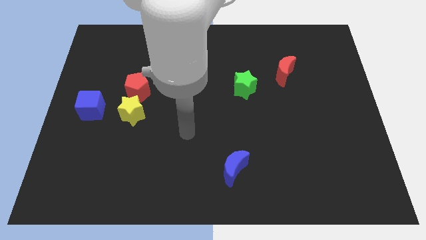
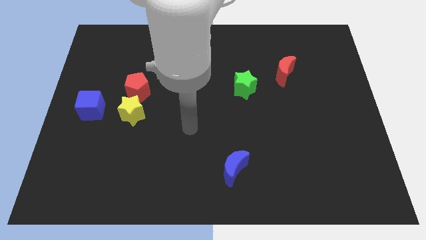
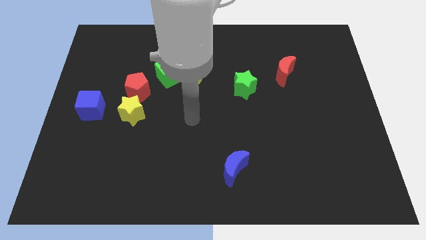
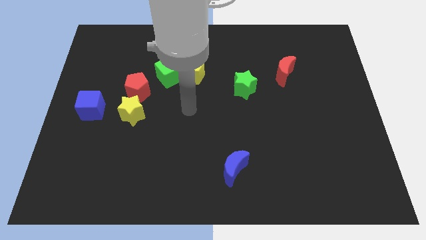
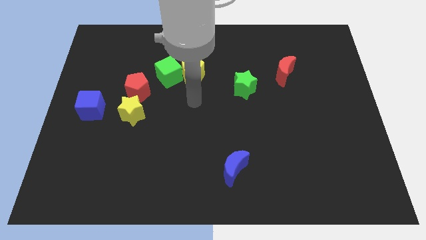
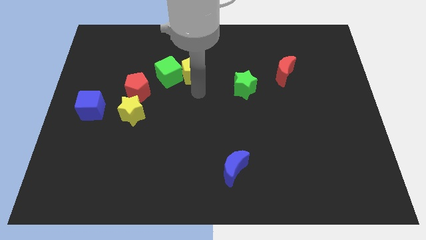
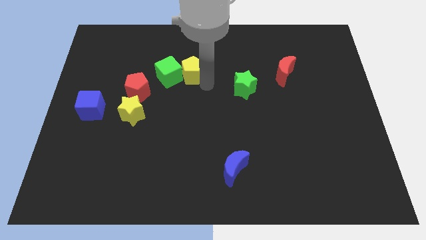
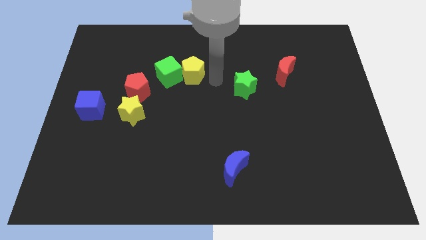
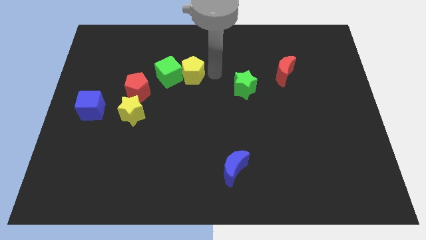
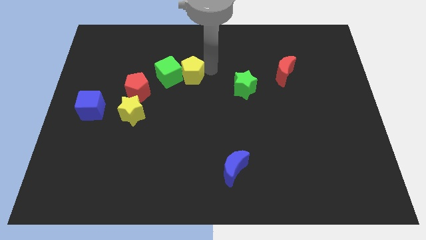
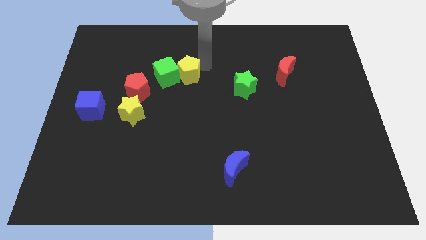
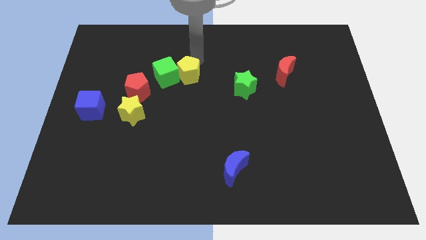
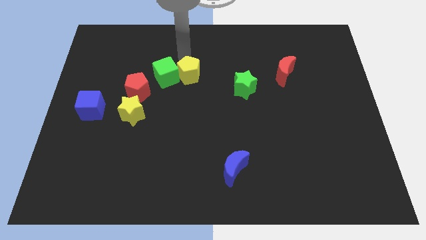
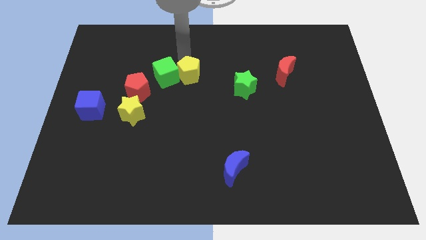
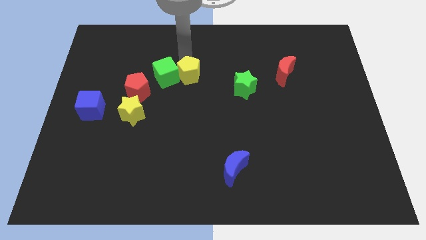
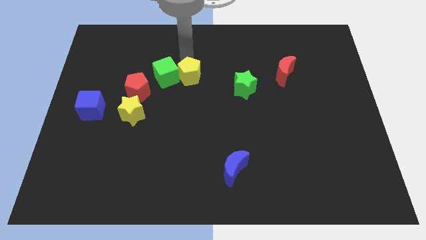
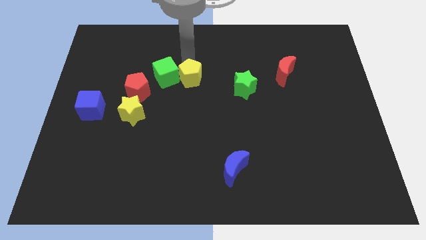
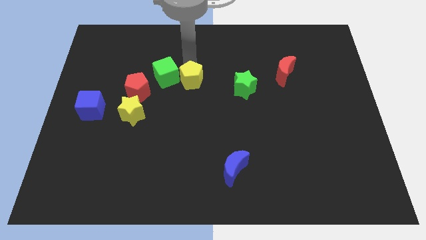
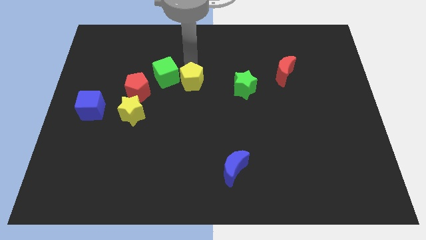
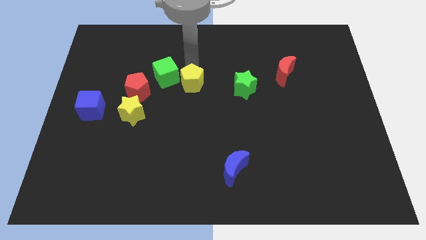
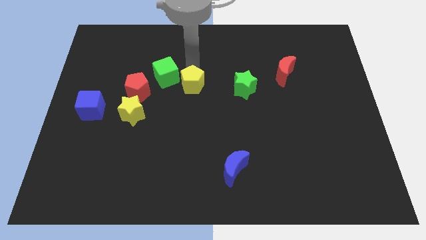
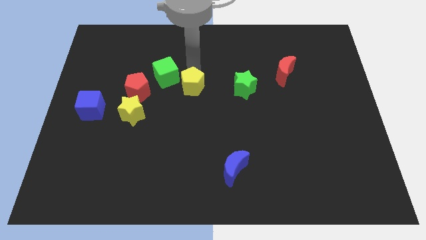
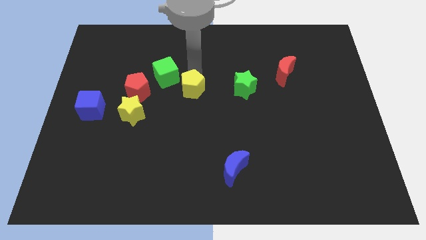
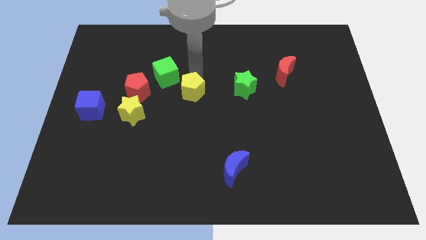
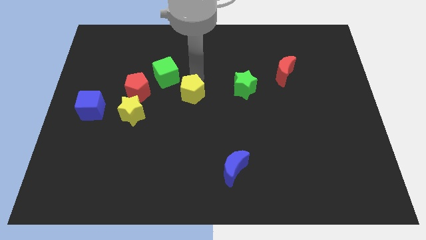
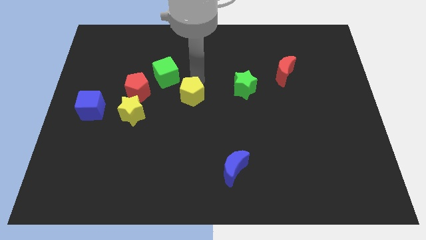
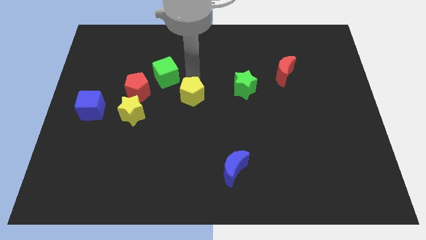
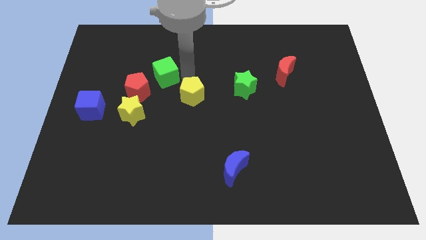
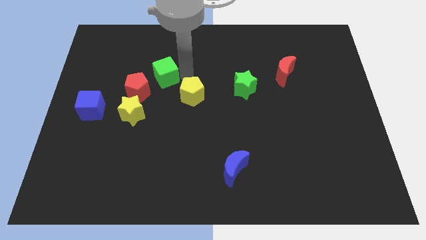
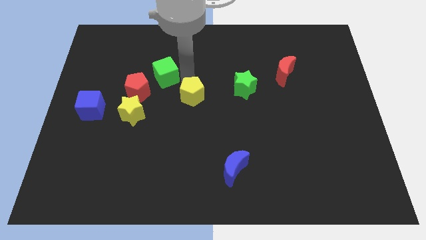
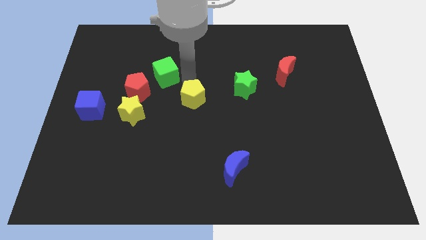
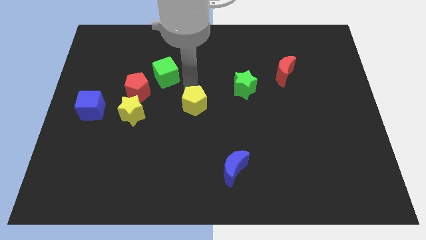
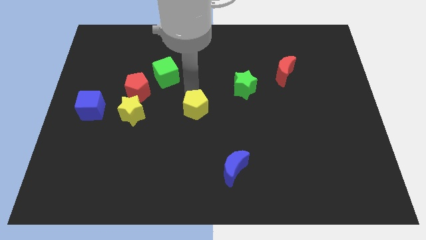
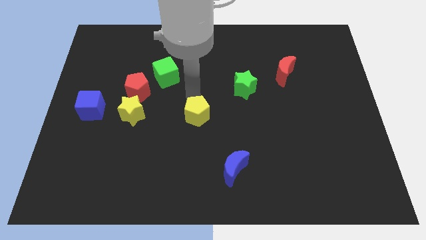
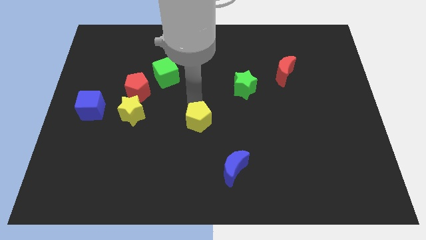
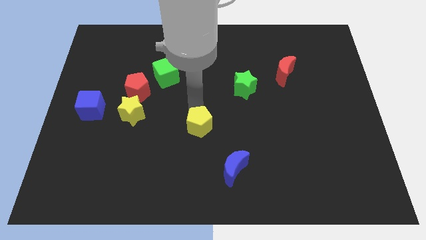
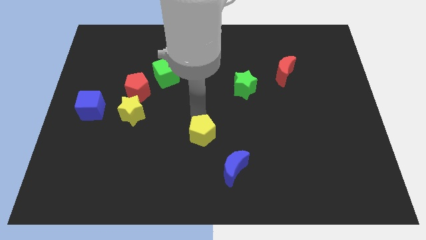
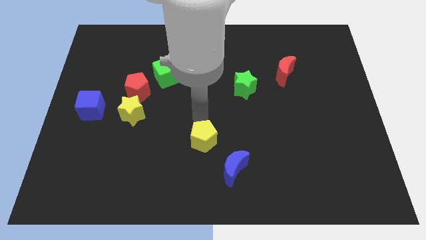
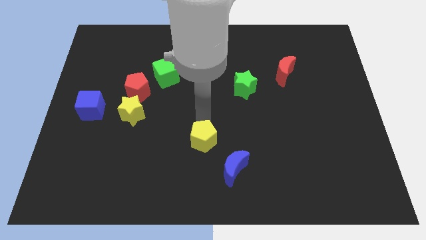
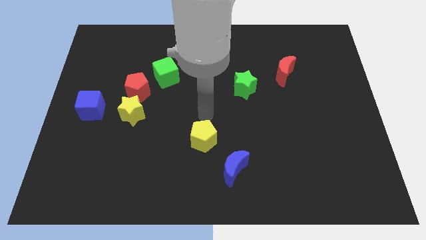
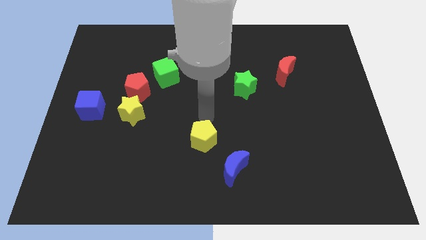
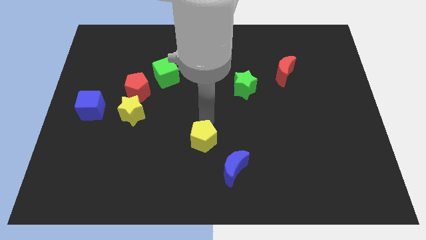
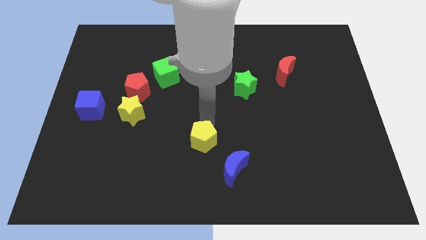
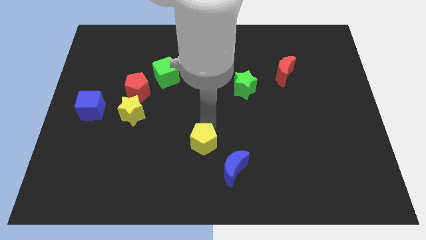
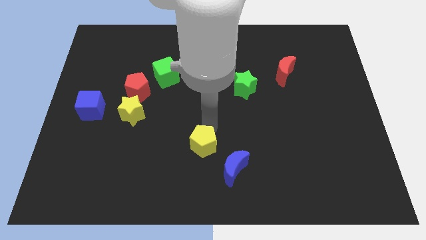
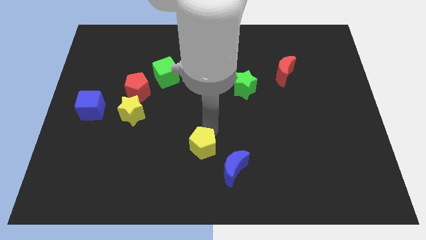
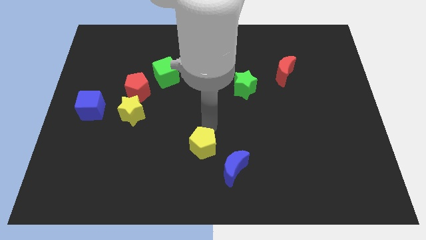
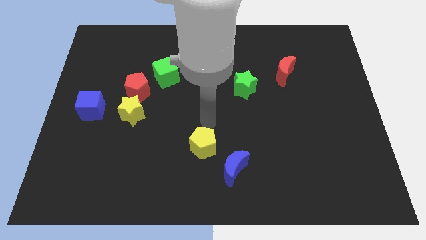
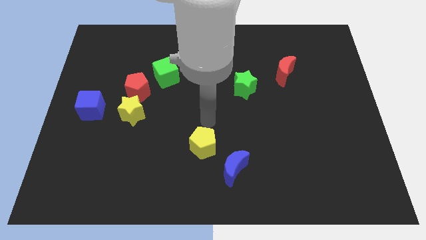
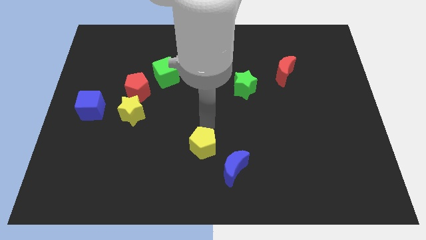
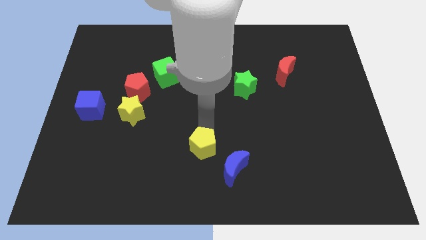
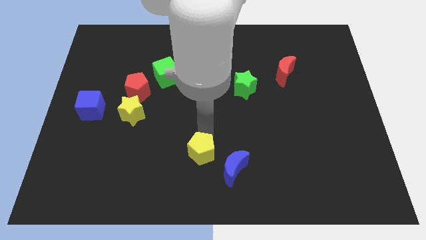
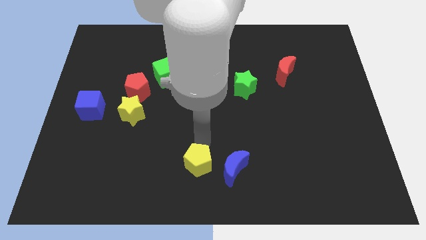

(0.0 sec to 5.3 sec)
move the yellow pentagon to the bottom

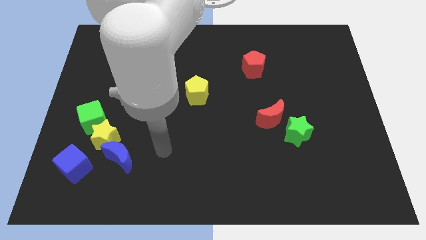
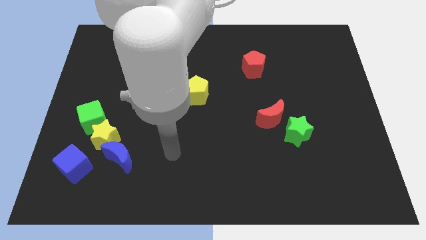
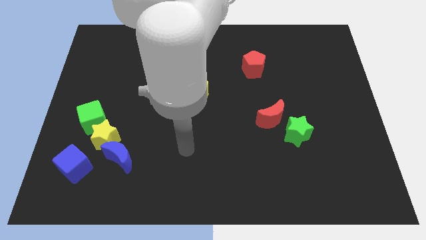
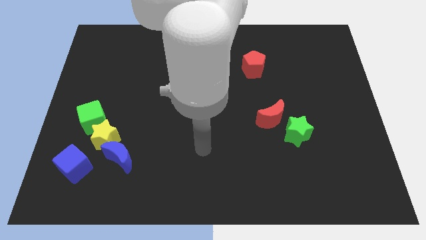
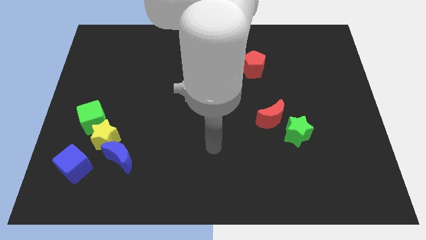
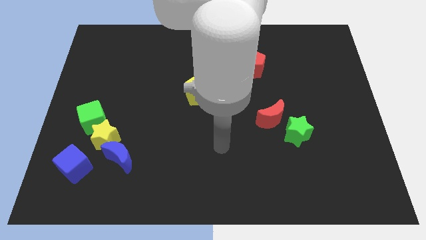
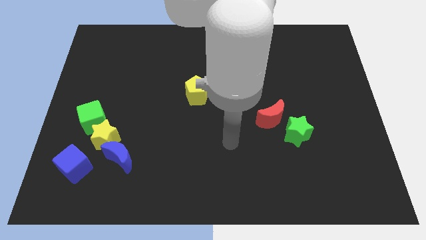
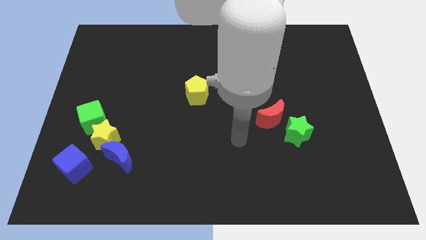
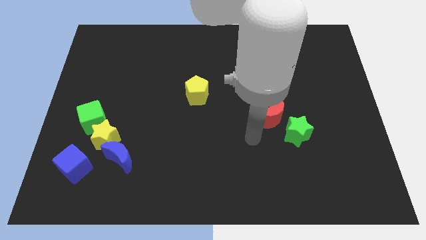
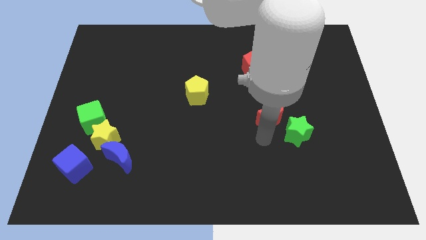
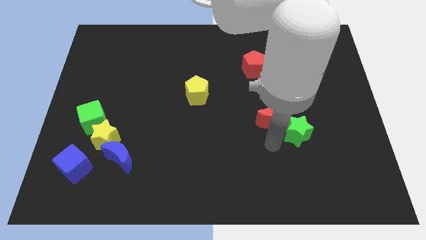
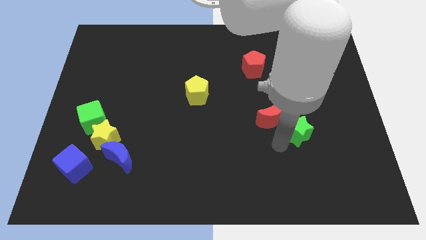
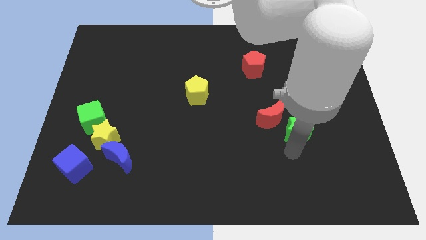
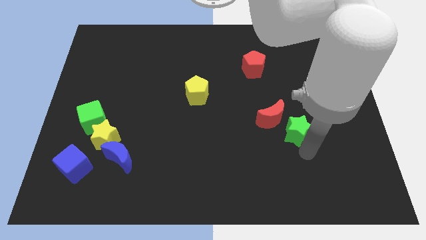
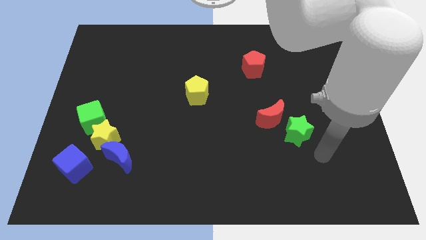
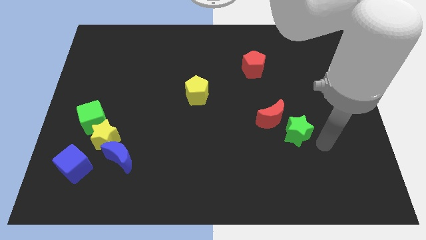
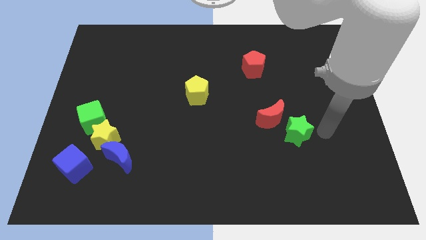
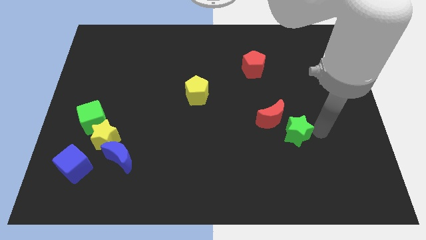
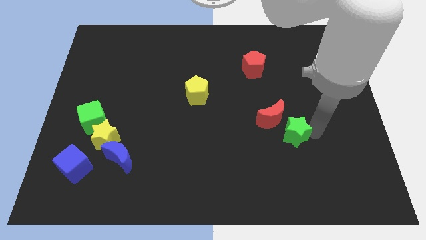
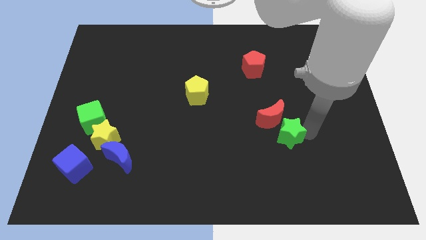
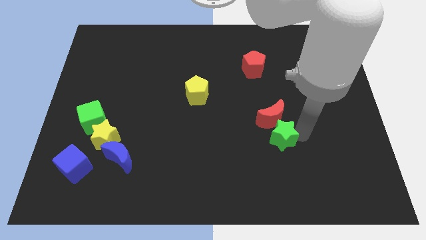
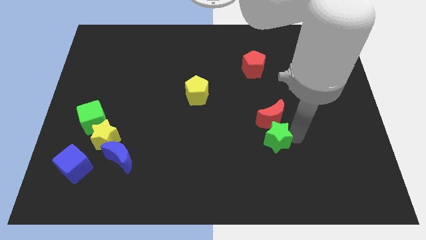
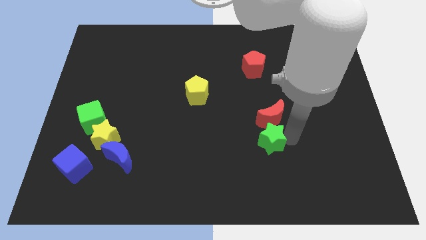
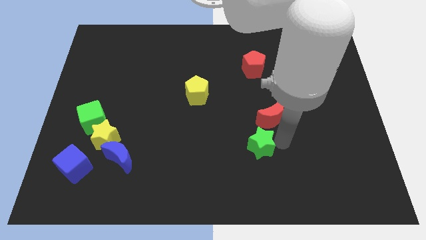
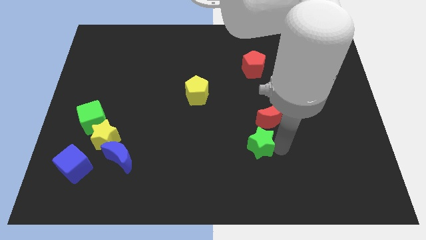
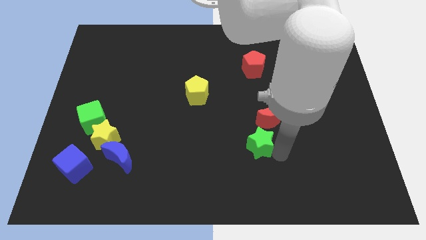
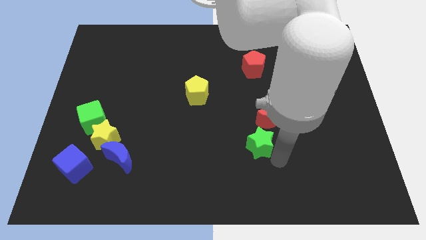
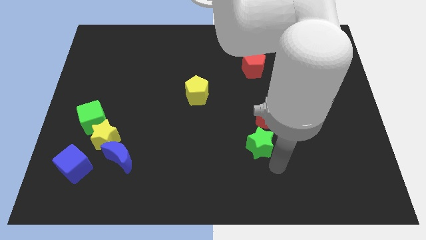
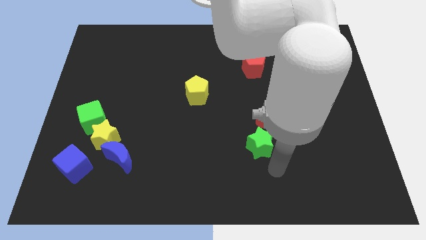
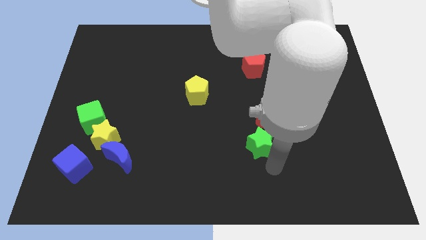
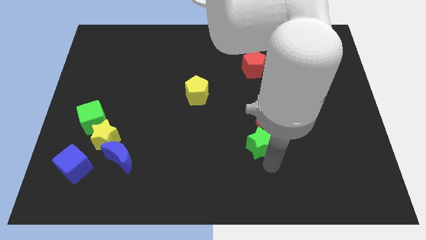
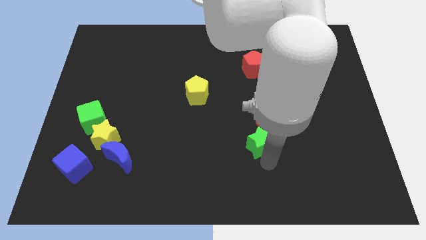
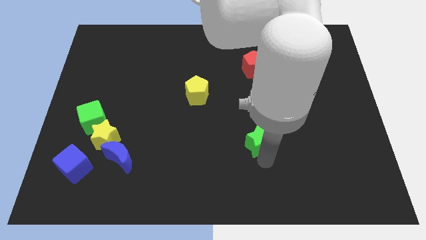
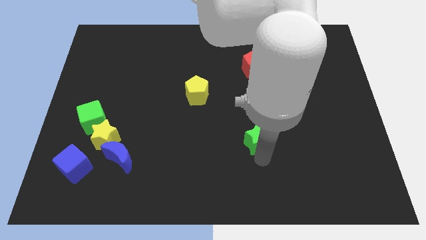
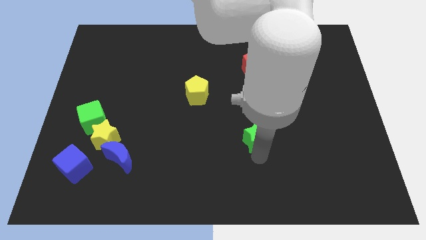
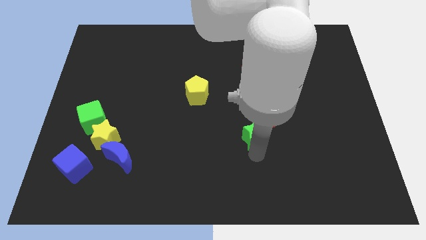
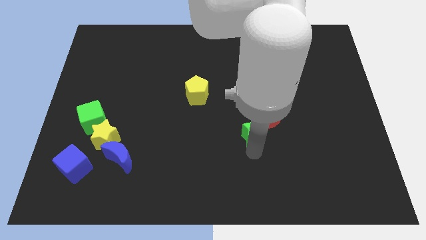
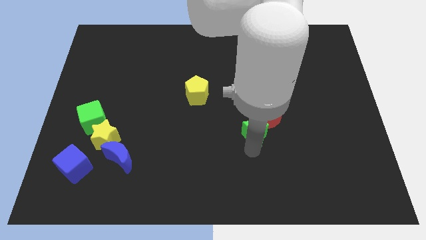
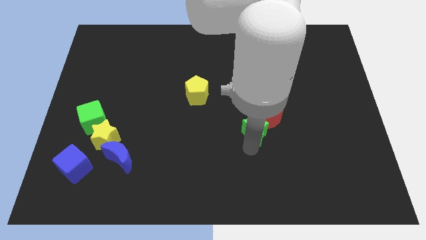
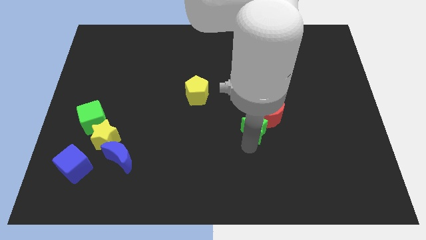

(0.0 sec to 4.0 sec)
move the green star to the center
